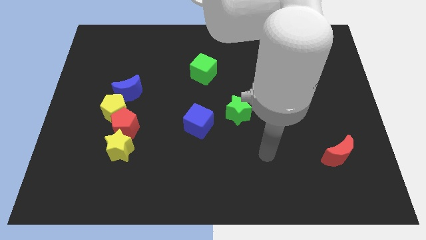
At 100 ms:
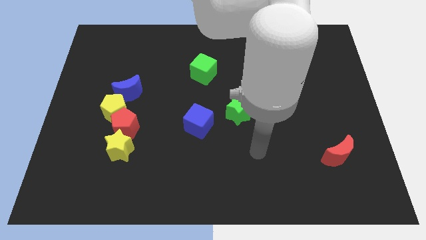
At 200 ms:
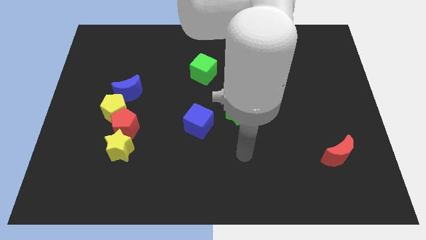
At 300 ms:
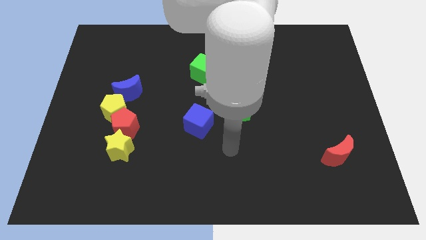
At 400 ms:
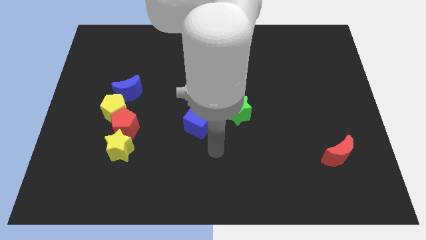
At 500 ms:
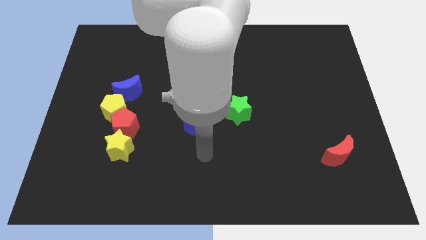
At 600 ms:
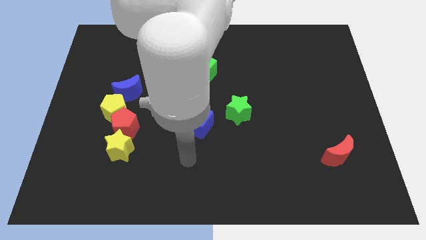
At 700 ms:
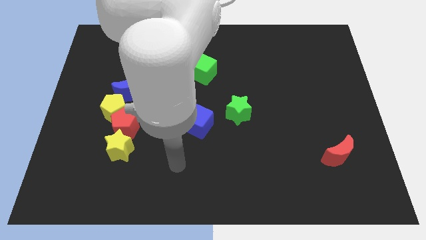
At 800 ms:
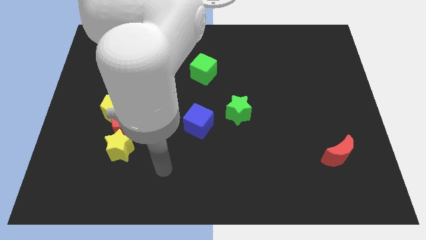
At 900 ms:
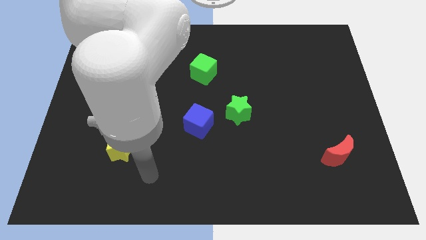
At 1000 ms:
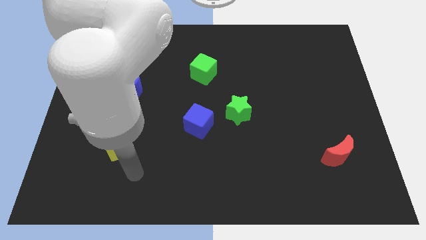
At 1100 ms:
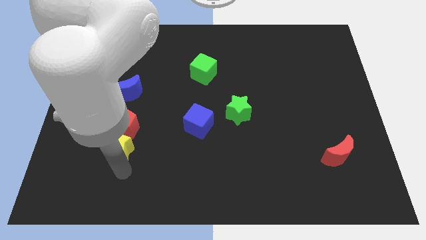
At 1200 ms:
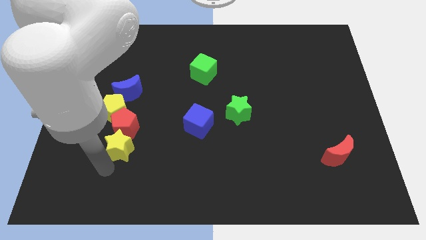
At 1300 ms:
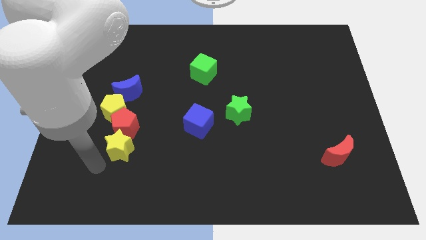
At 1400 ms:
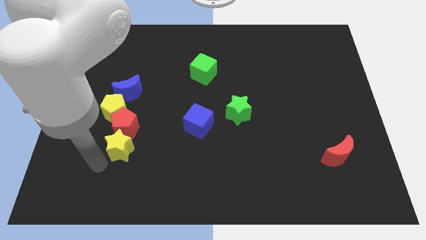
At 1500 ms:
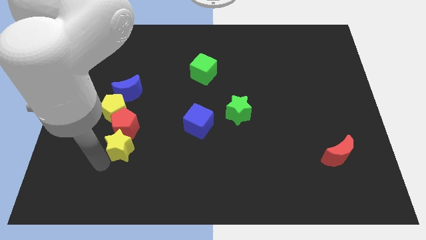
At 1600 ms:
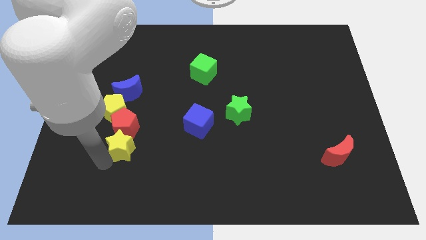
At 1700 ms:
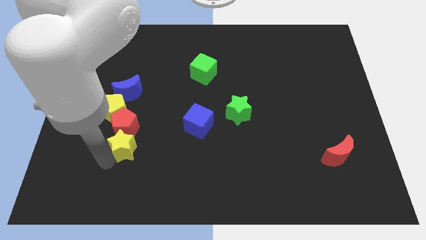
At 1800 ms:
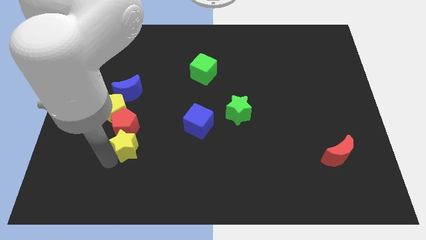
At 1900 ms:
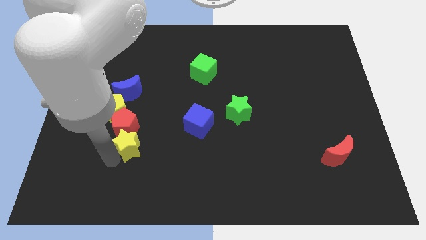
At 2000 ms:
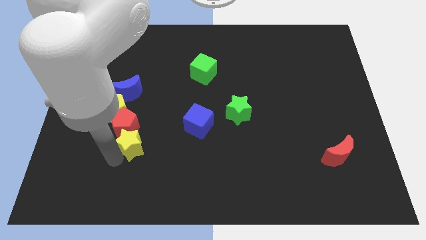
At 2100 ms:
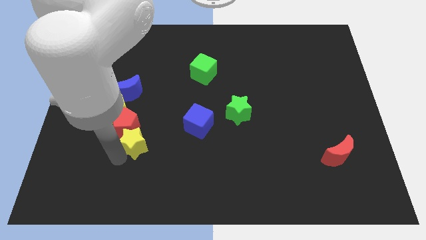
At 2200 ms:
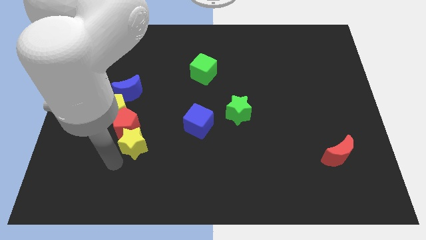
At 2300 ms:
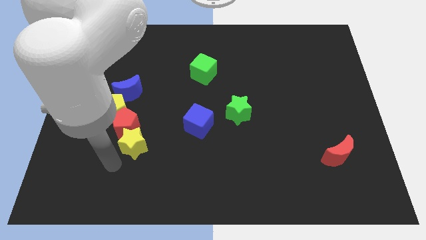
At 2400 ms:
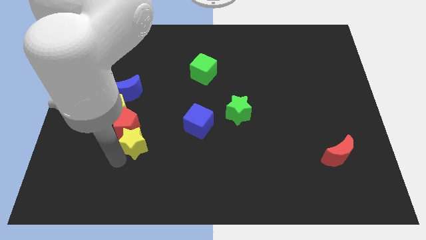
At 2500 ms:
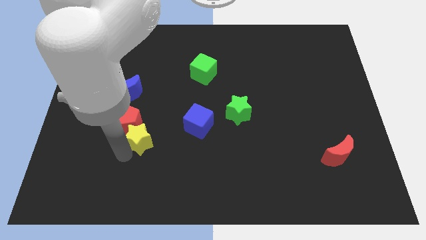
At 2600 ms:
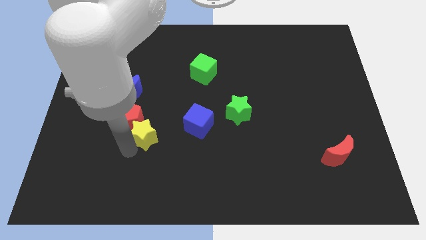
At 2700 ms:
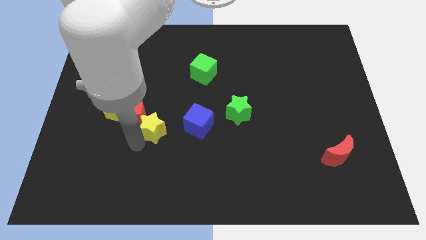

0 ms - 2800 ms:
push the yellow star up and then right a bit

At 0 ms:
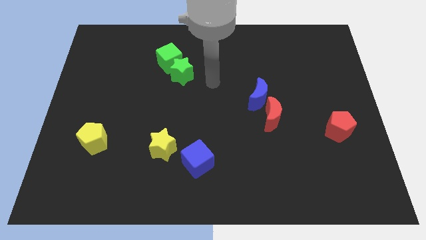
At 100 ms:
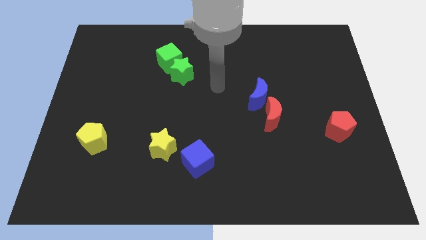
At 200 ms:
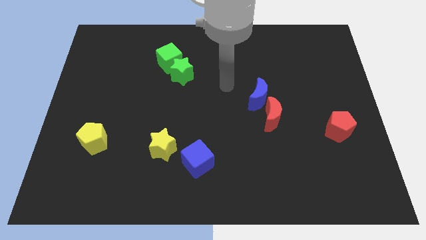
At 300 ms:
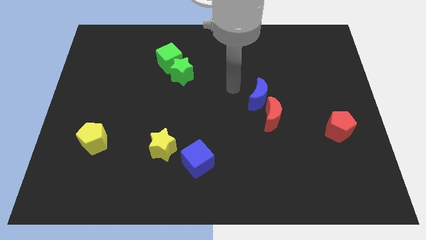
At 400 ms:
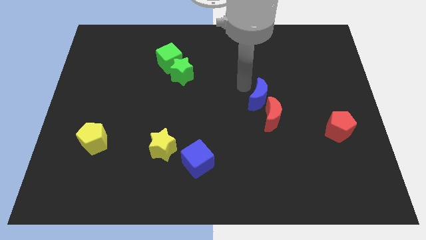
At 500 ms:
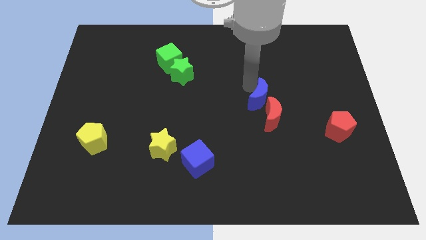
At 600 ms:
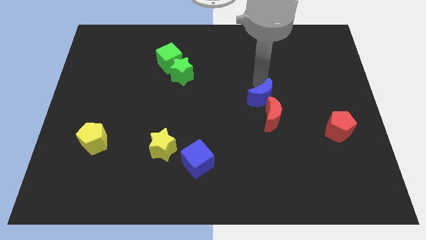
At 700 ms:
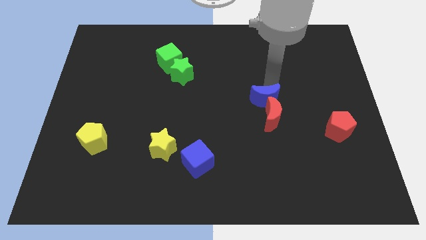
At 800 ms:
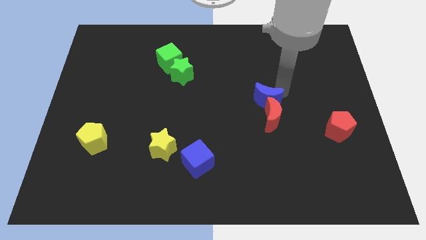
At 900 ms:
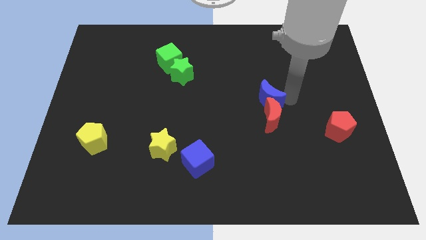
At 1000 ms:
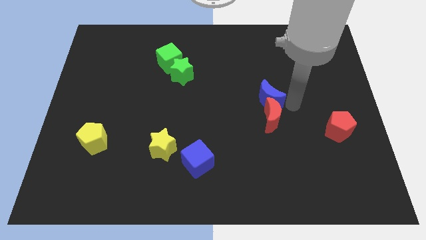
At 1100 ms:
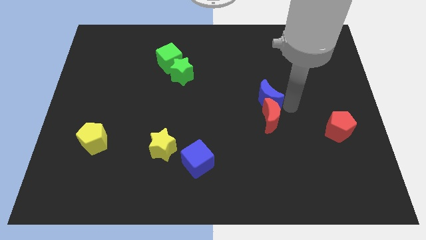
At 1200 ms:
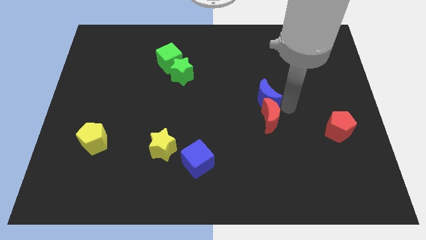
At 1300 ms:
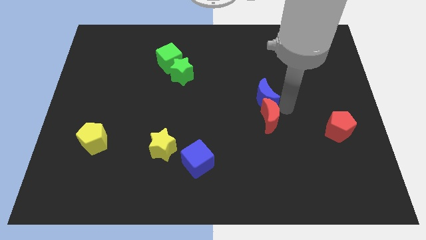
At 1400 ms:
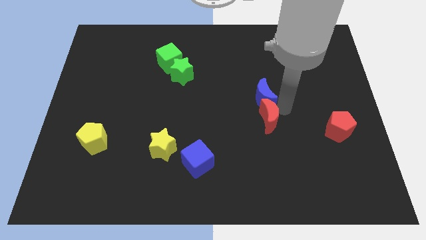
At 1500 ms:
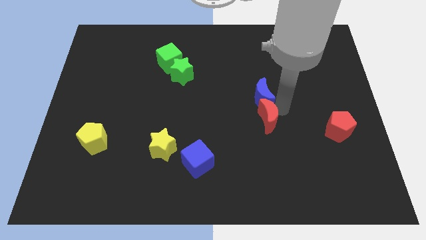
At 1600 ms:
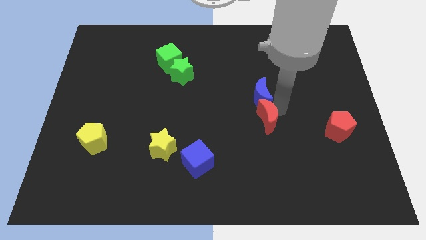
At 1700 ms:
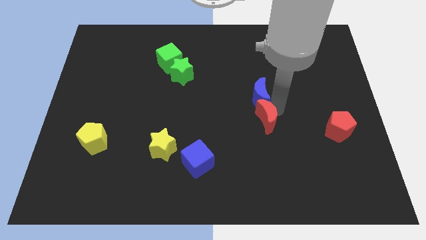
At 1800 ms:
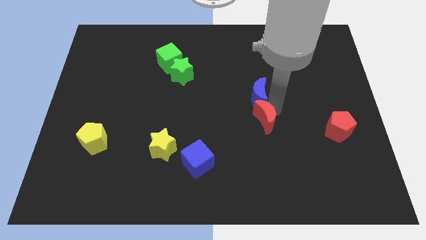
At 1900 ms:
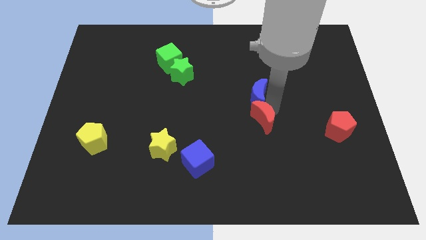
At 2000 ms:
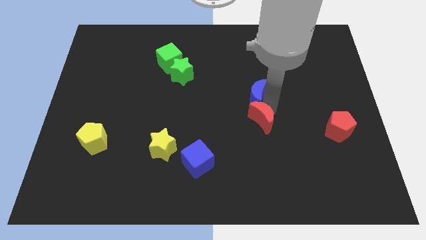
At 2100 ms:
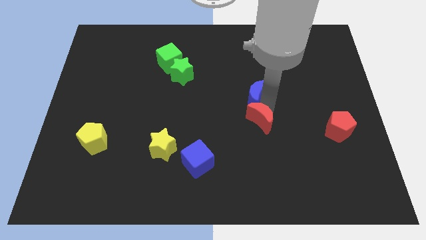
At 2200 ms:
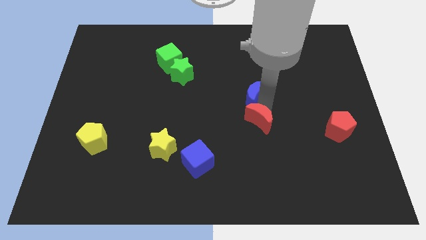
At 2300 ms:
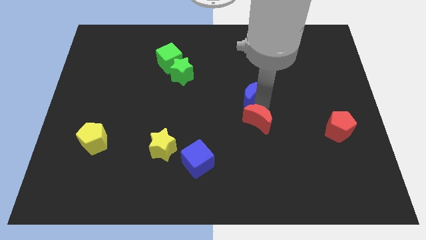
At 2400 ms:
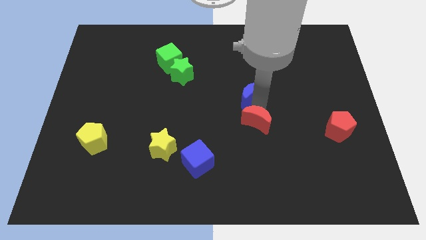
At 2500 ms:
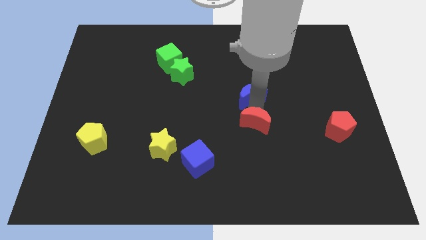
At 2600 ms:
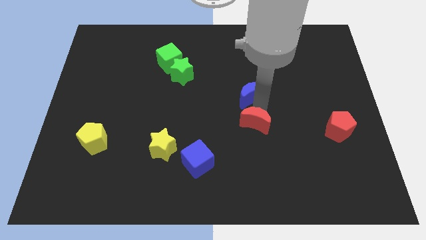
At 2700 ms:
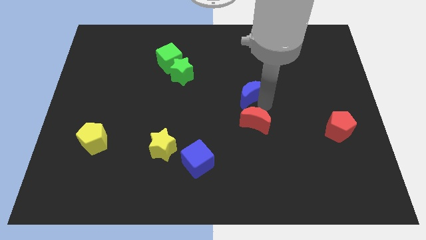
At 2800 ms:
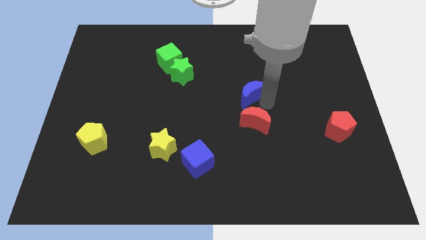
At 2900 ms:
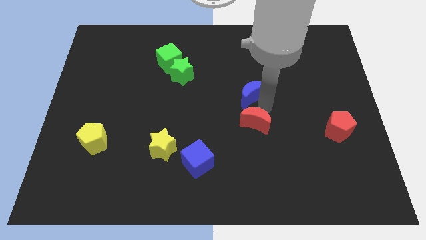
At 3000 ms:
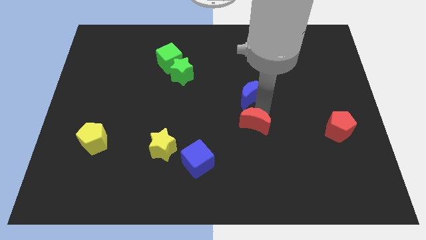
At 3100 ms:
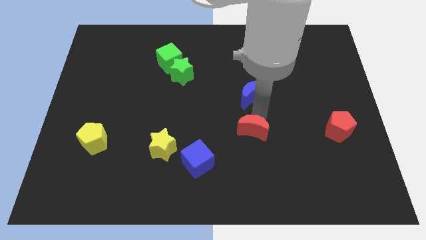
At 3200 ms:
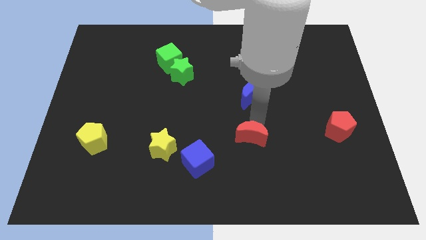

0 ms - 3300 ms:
slightly move the red moon downwards and to the left diagonally

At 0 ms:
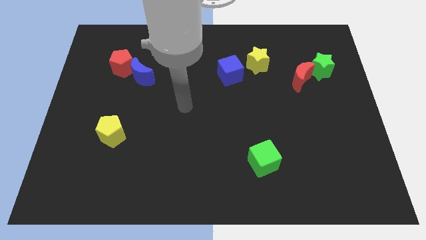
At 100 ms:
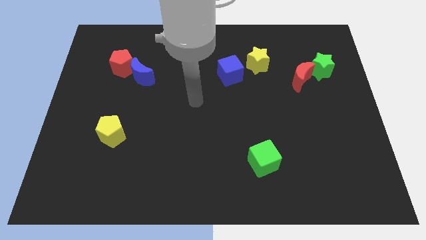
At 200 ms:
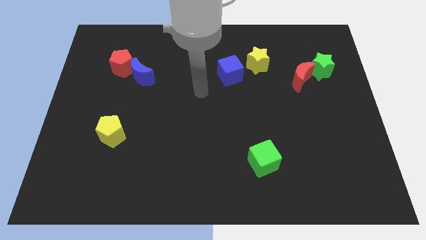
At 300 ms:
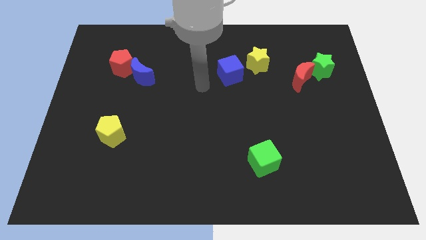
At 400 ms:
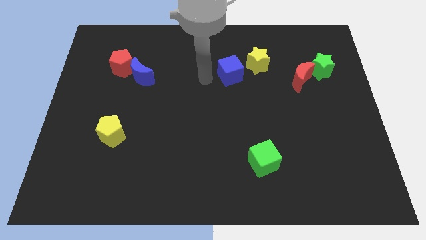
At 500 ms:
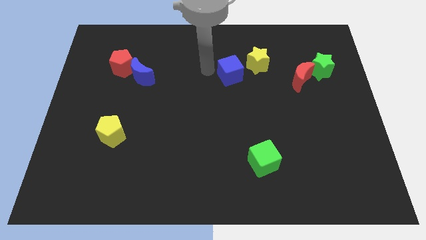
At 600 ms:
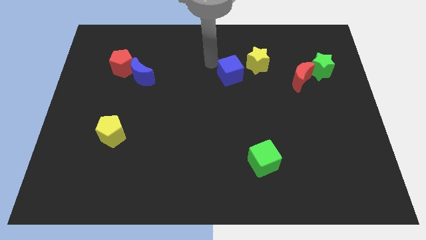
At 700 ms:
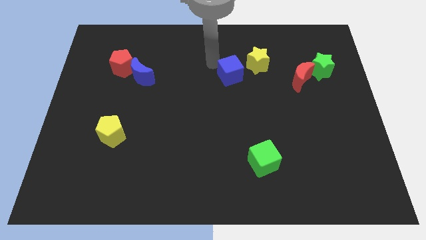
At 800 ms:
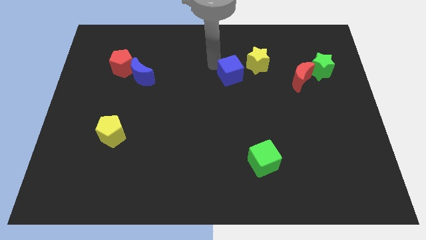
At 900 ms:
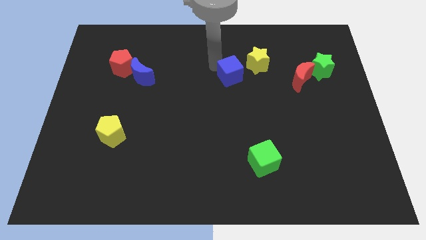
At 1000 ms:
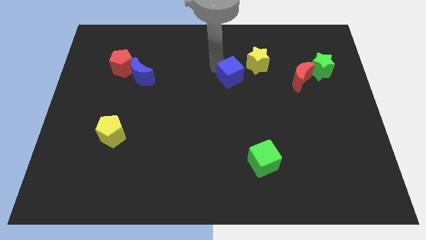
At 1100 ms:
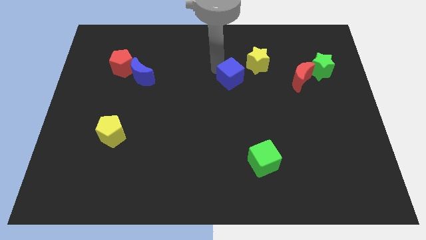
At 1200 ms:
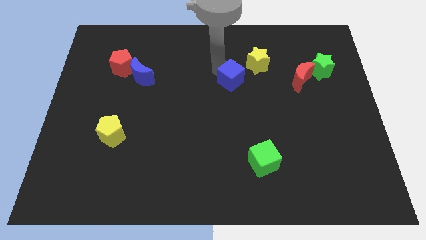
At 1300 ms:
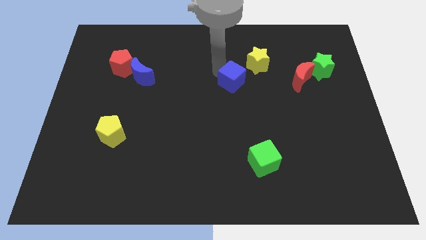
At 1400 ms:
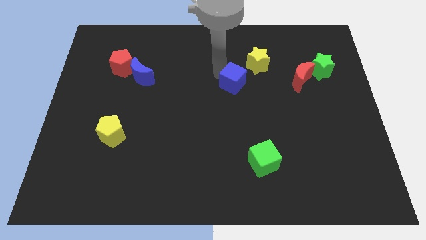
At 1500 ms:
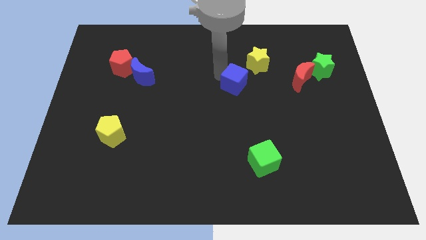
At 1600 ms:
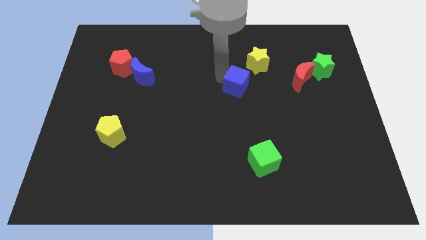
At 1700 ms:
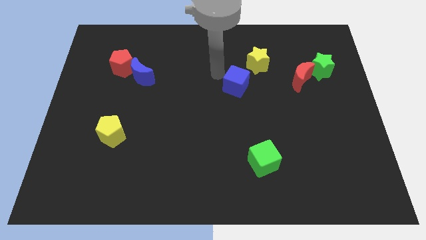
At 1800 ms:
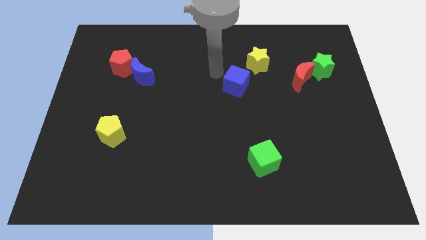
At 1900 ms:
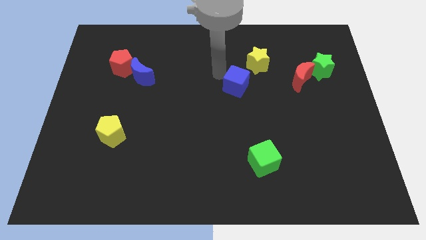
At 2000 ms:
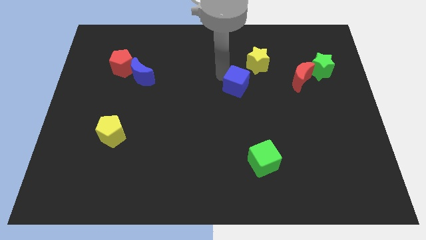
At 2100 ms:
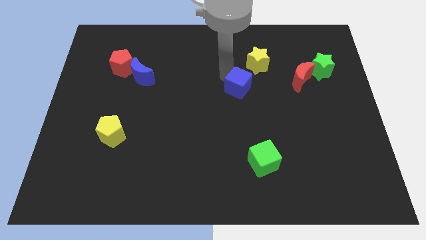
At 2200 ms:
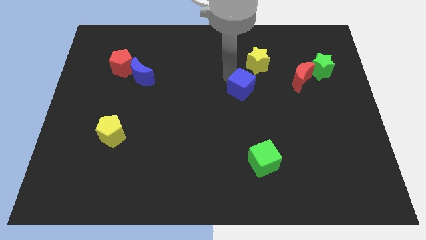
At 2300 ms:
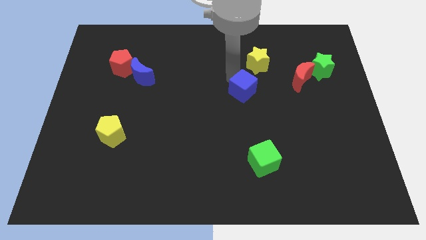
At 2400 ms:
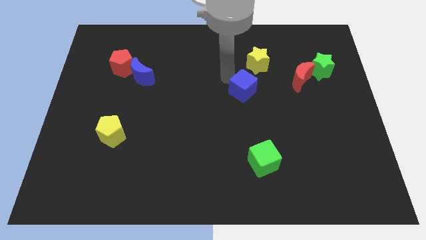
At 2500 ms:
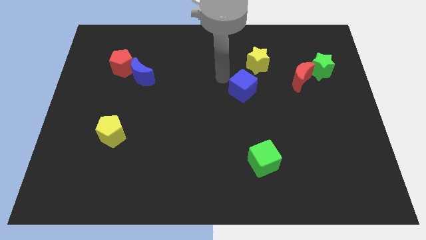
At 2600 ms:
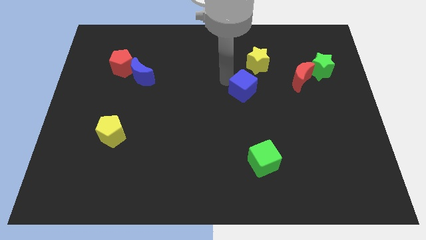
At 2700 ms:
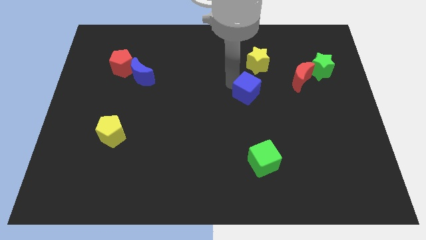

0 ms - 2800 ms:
push the blue cube diagonally downwards and to the right somewhat
